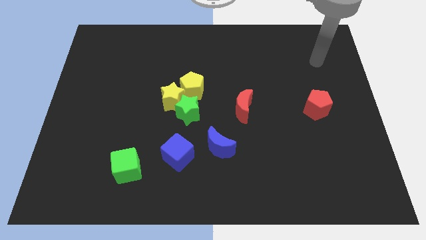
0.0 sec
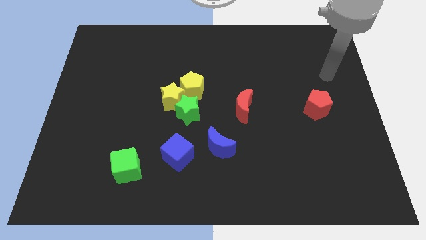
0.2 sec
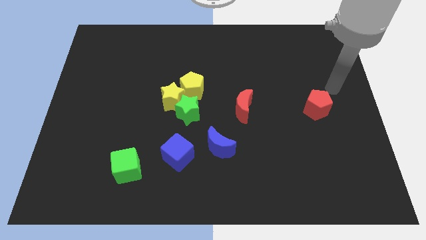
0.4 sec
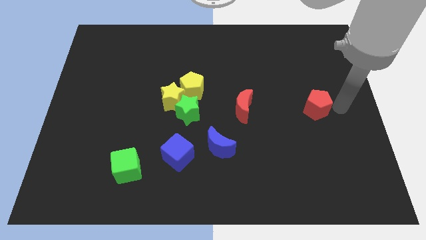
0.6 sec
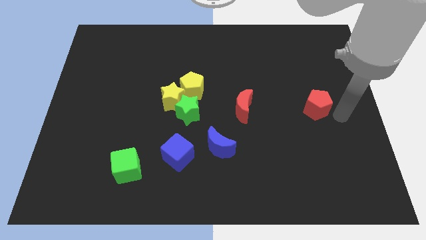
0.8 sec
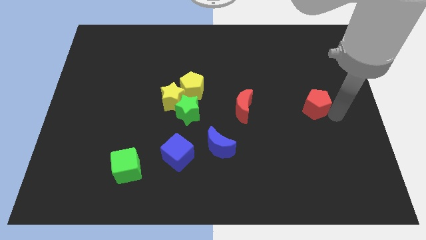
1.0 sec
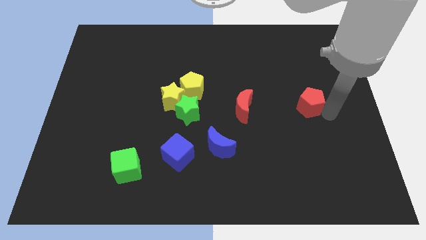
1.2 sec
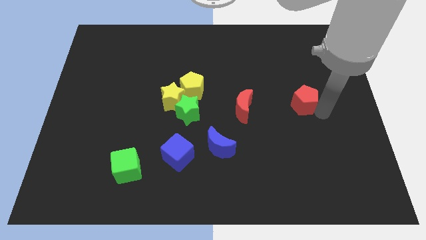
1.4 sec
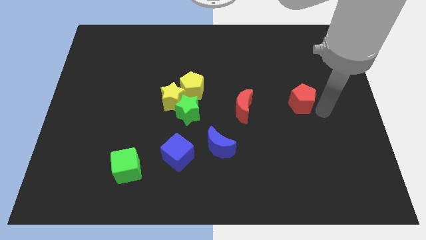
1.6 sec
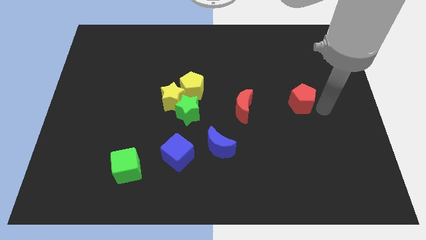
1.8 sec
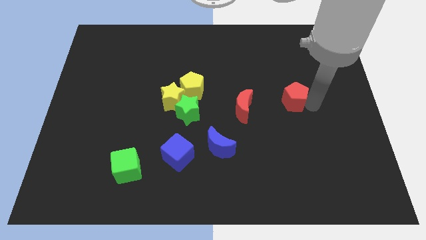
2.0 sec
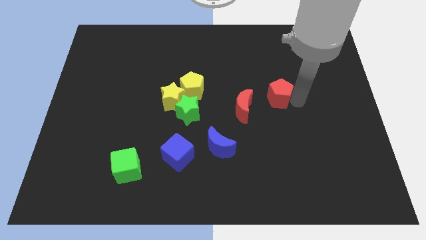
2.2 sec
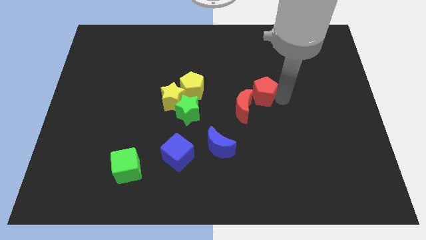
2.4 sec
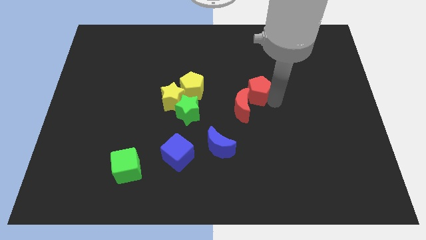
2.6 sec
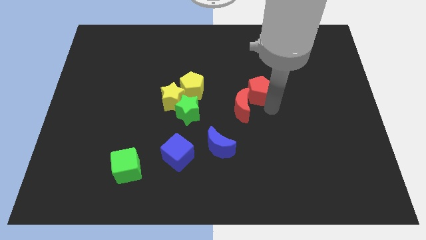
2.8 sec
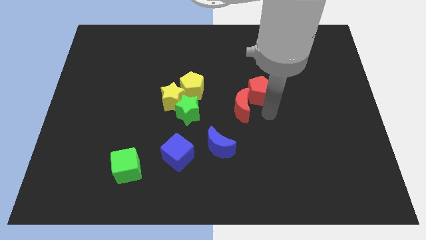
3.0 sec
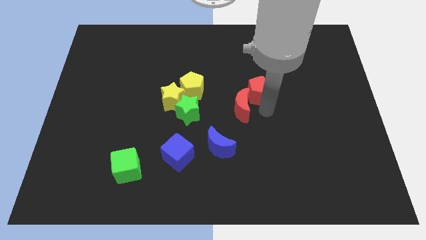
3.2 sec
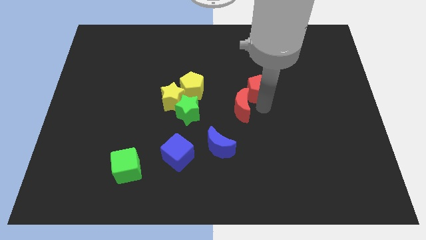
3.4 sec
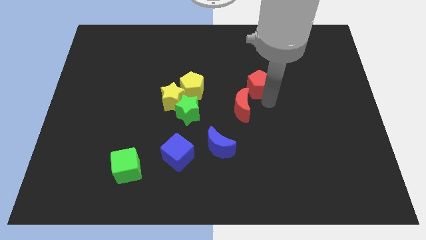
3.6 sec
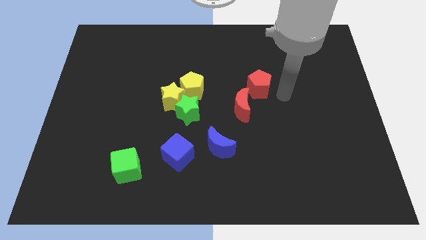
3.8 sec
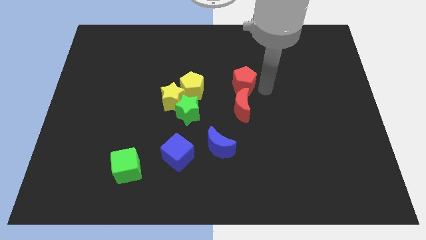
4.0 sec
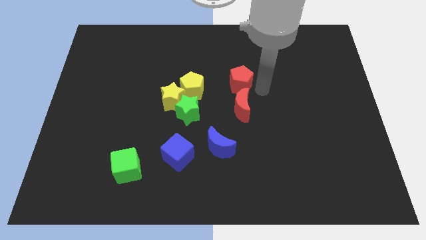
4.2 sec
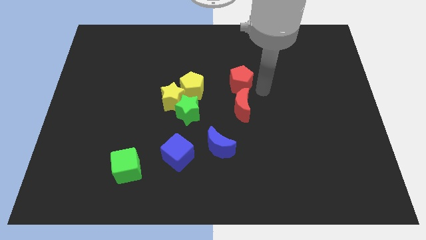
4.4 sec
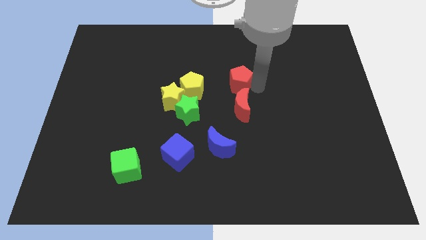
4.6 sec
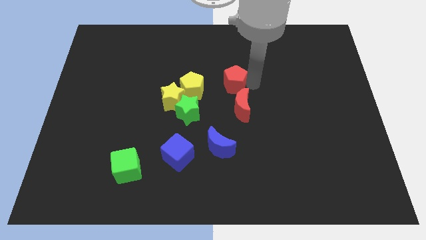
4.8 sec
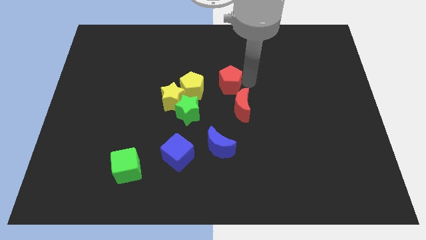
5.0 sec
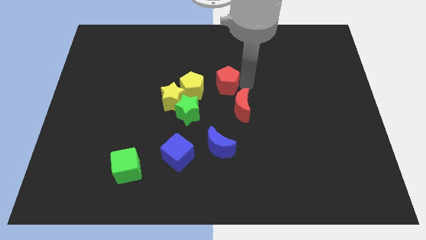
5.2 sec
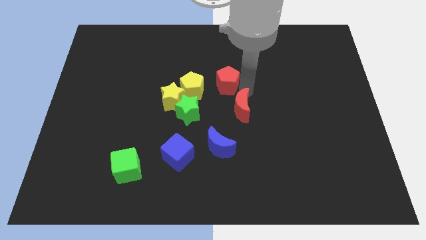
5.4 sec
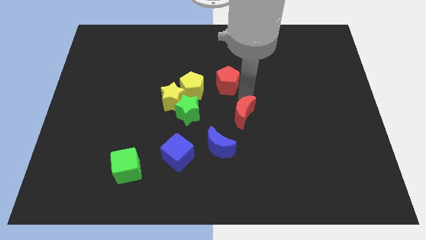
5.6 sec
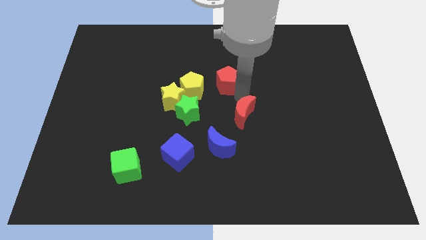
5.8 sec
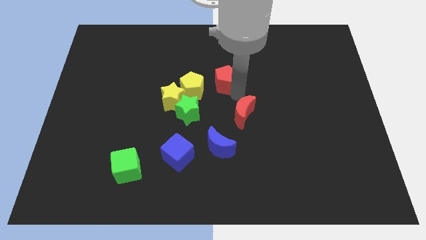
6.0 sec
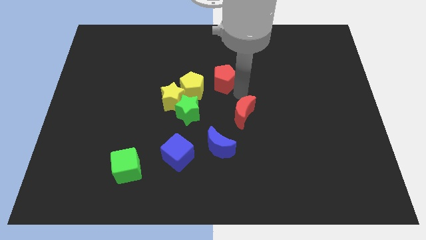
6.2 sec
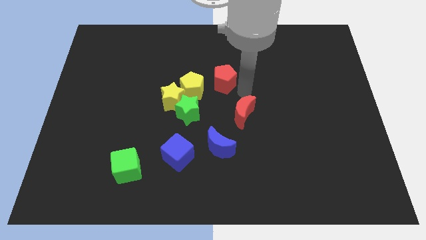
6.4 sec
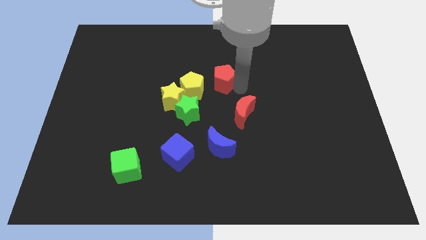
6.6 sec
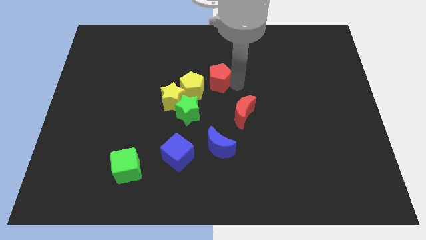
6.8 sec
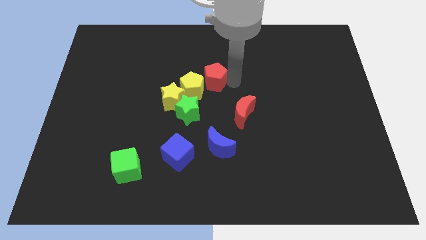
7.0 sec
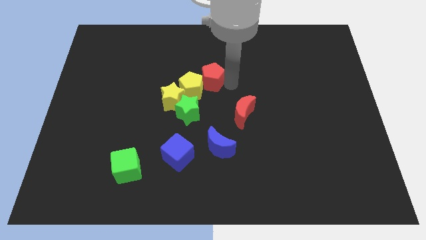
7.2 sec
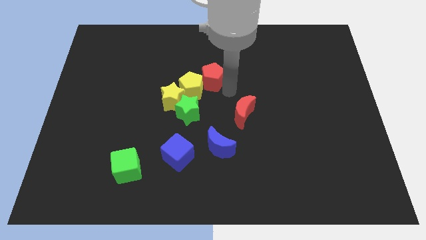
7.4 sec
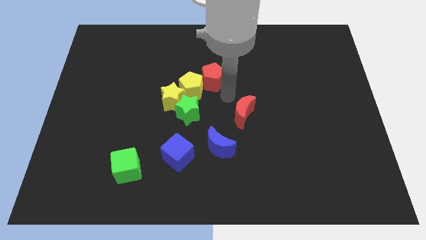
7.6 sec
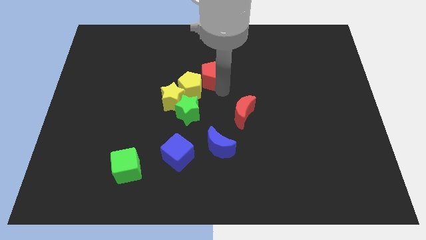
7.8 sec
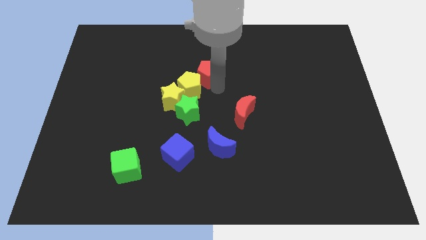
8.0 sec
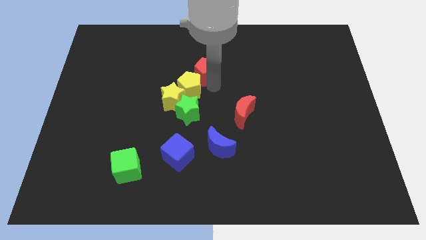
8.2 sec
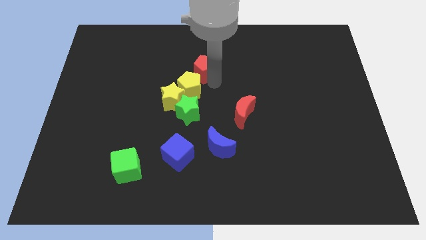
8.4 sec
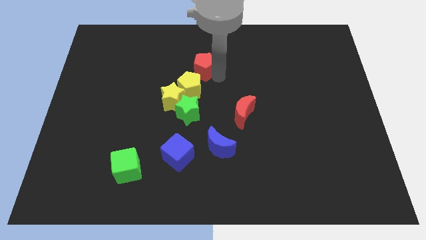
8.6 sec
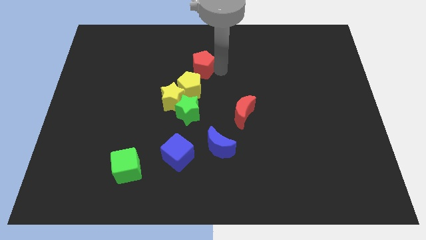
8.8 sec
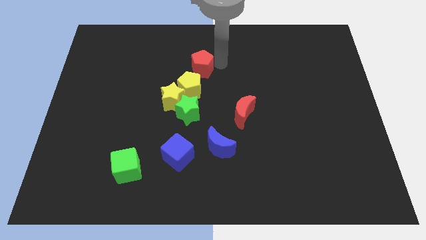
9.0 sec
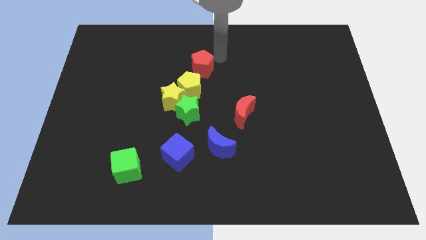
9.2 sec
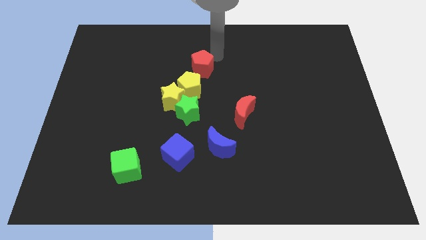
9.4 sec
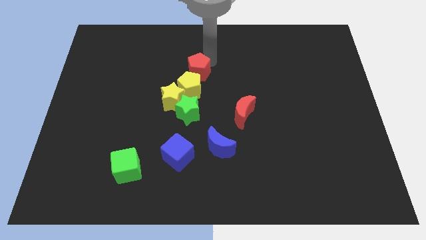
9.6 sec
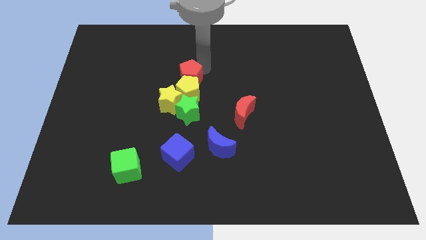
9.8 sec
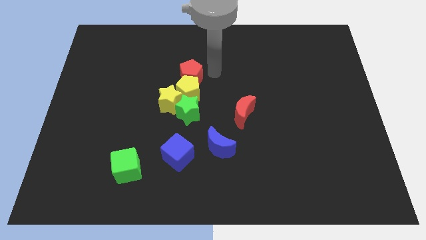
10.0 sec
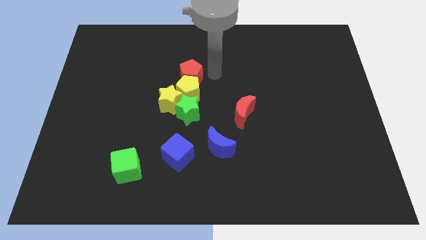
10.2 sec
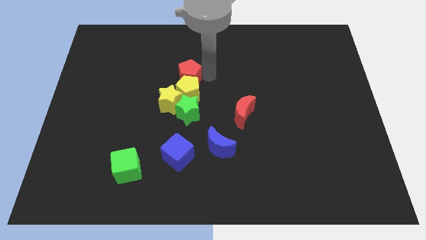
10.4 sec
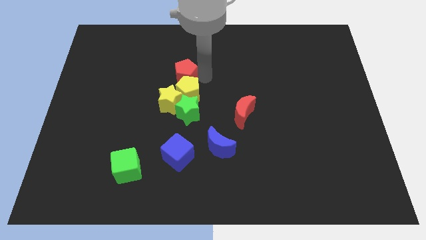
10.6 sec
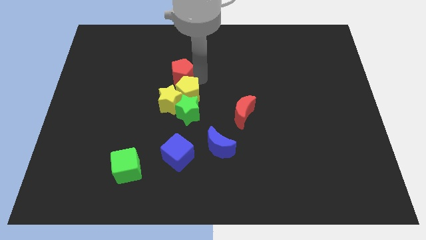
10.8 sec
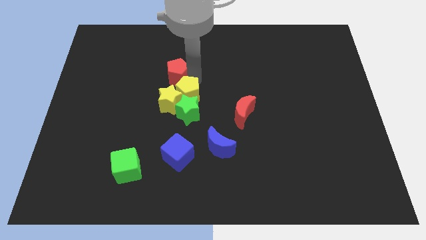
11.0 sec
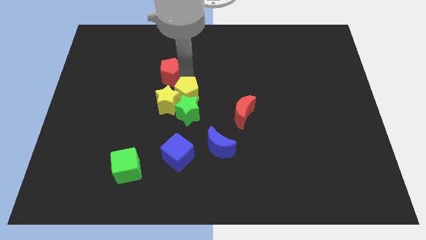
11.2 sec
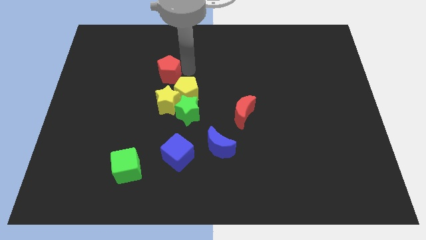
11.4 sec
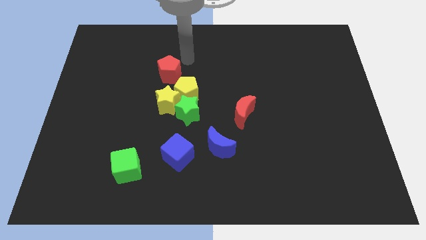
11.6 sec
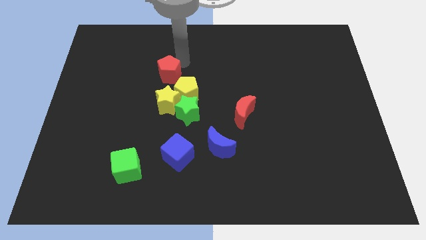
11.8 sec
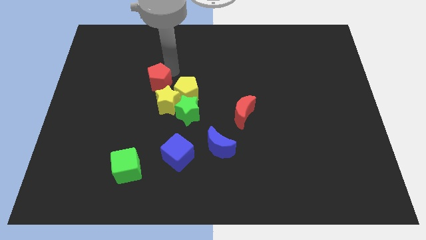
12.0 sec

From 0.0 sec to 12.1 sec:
slide the red pentagon just left of the yellow pentagon

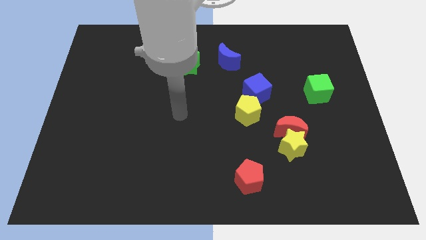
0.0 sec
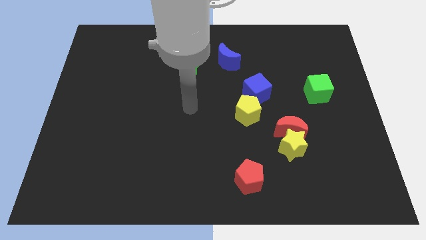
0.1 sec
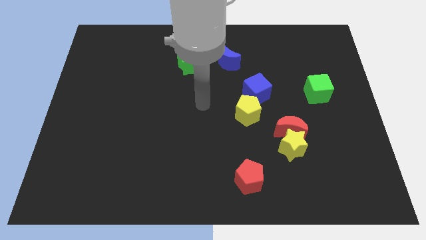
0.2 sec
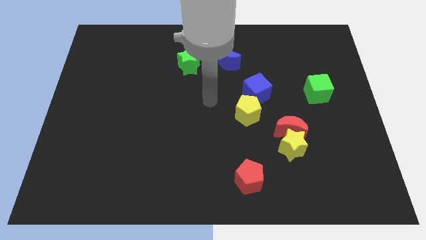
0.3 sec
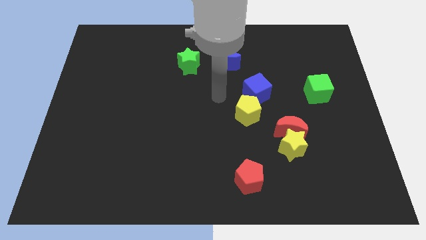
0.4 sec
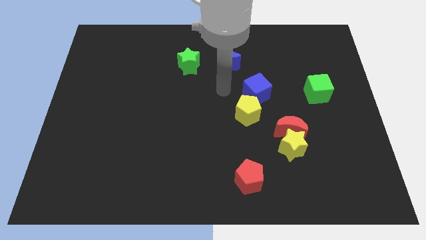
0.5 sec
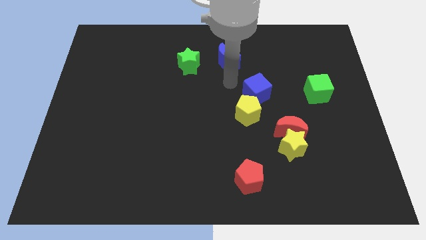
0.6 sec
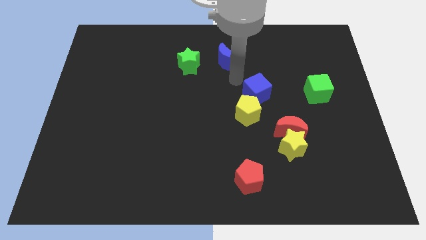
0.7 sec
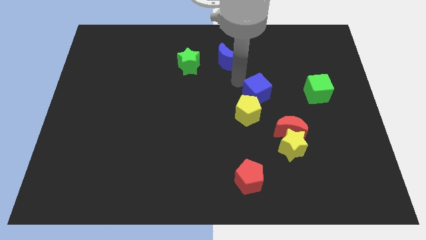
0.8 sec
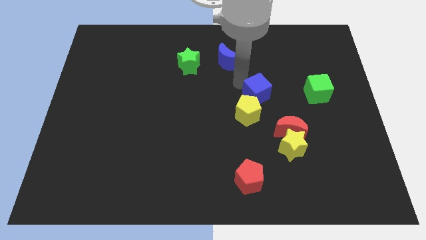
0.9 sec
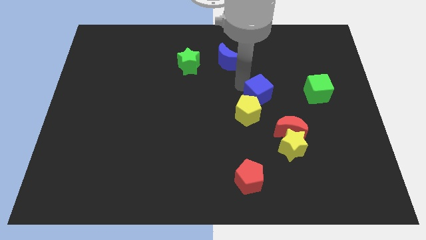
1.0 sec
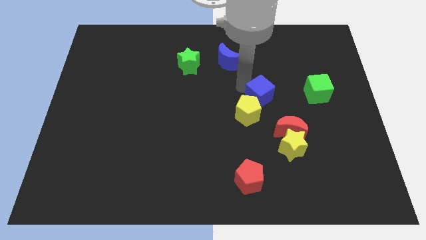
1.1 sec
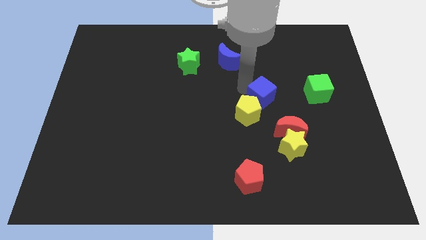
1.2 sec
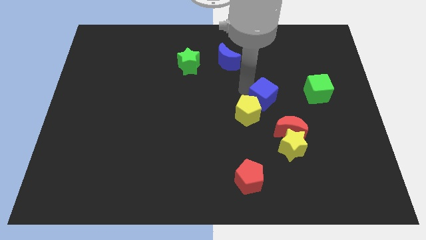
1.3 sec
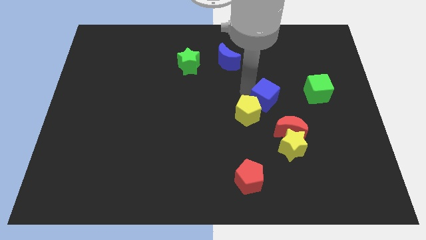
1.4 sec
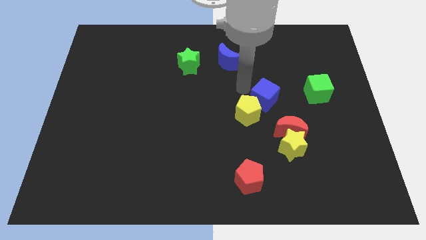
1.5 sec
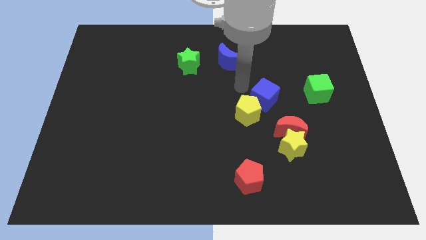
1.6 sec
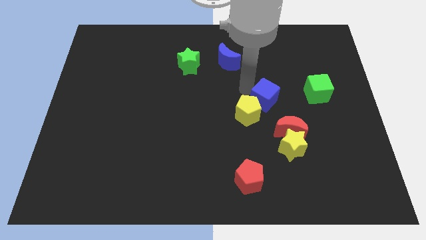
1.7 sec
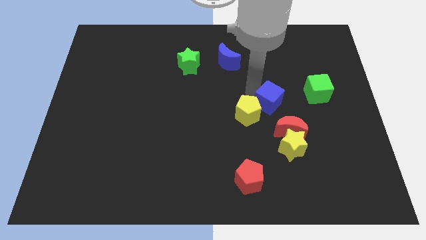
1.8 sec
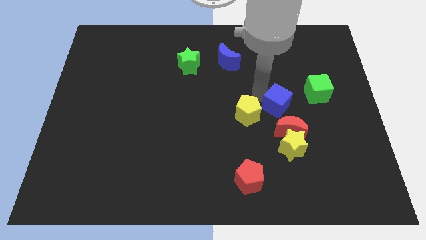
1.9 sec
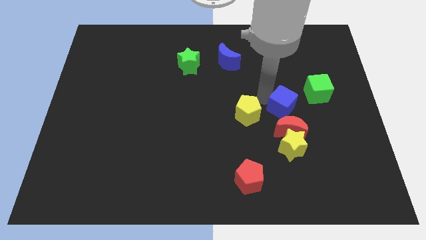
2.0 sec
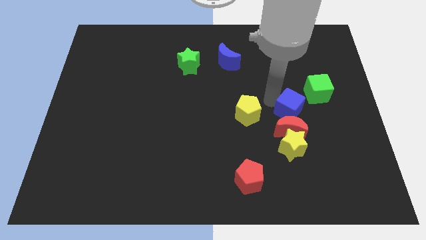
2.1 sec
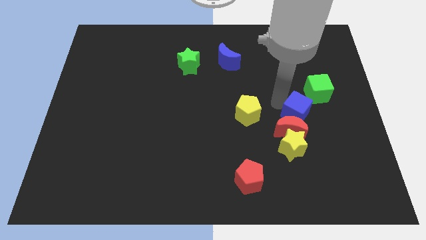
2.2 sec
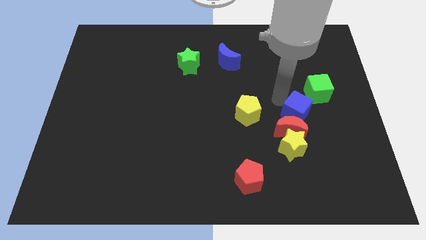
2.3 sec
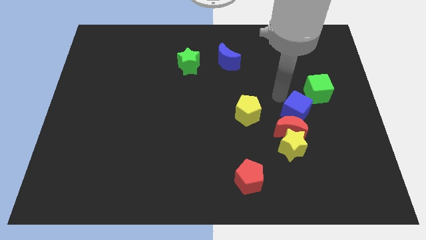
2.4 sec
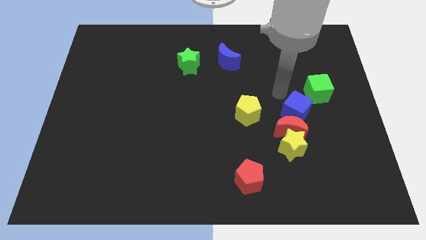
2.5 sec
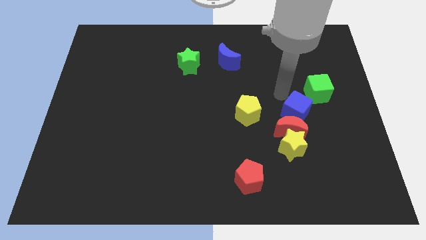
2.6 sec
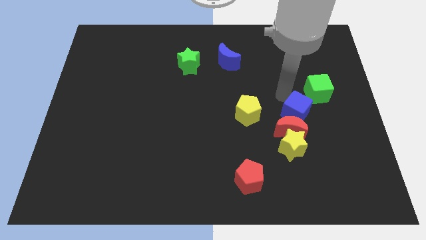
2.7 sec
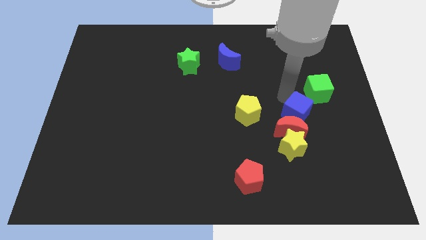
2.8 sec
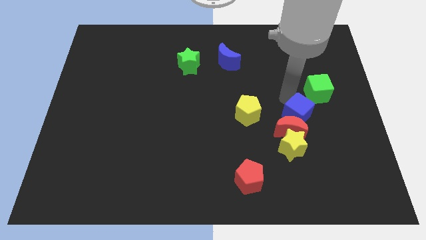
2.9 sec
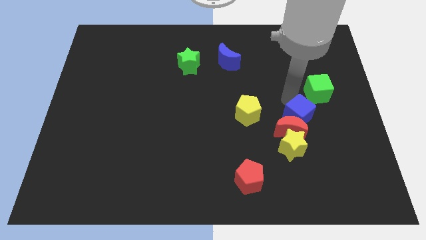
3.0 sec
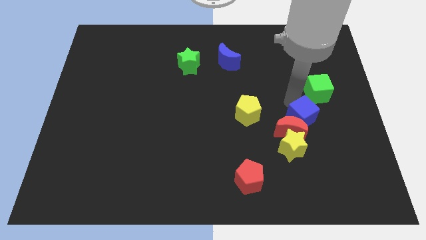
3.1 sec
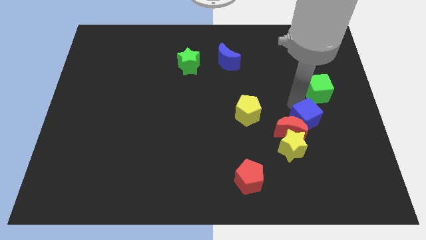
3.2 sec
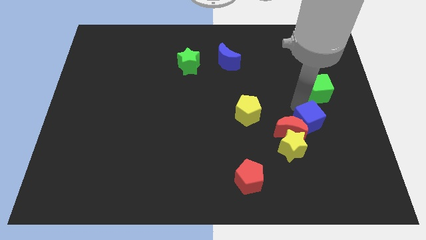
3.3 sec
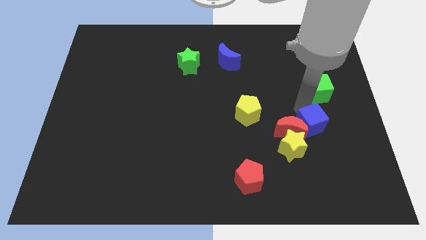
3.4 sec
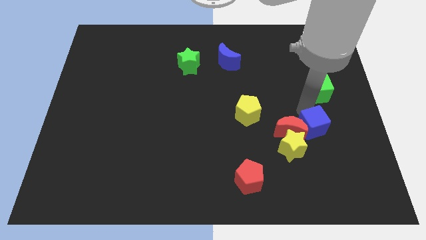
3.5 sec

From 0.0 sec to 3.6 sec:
slide the blue cube diagonally down and to the right of the red moon
